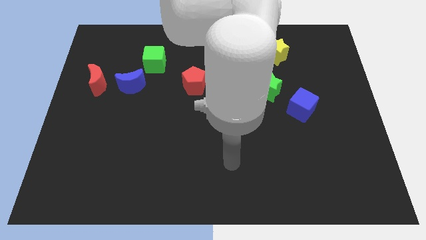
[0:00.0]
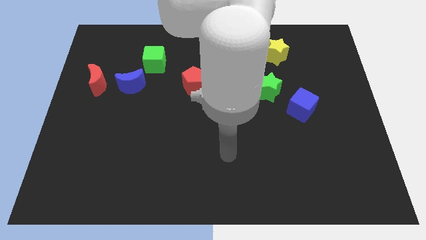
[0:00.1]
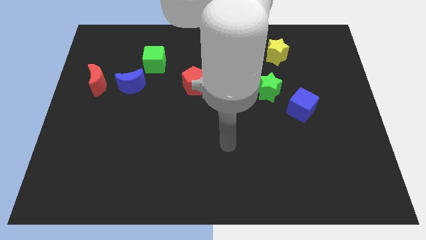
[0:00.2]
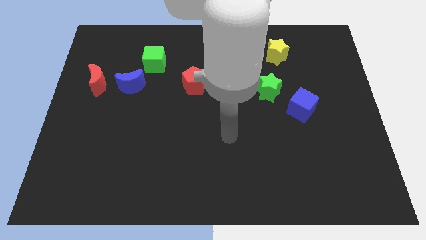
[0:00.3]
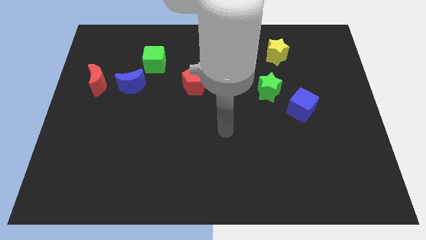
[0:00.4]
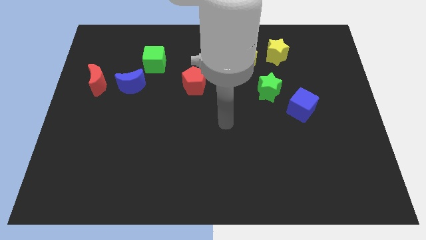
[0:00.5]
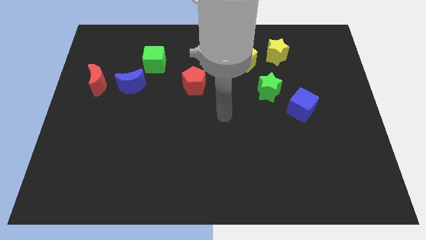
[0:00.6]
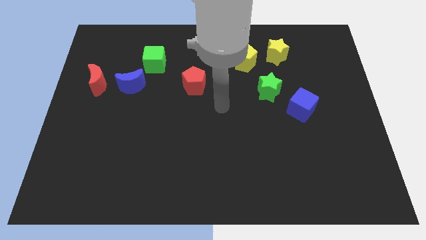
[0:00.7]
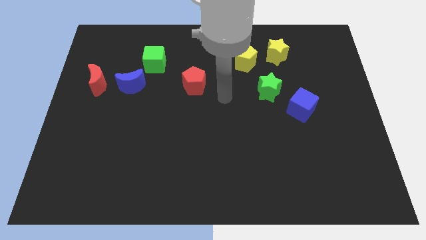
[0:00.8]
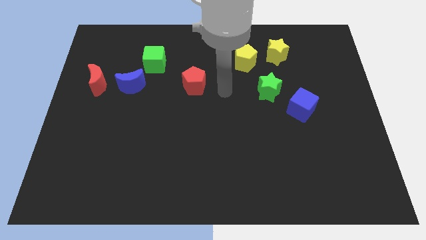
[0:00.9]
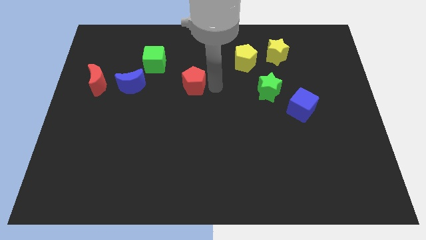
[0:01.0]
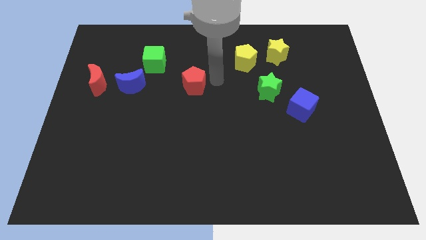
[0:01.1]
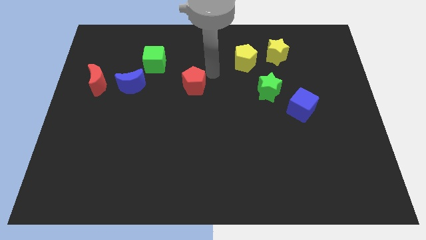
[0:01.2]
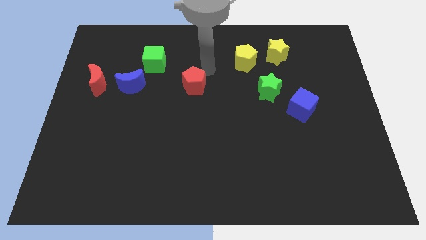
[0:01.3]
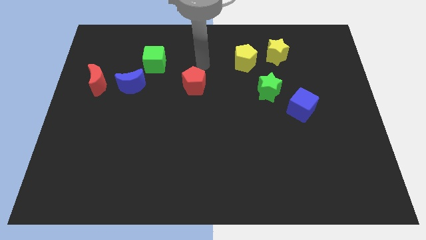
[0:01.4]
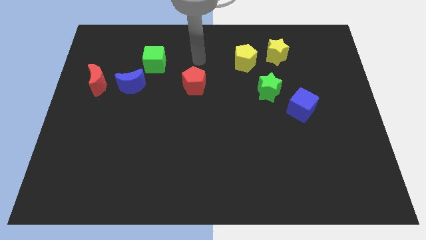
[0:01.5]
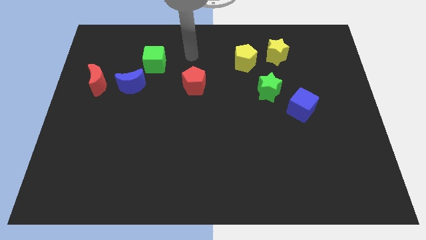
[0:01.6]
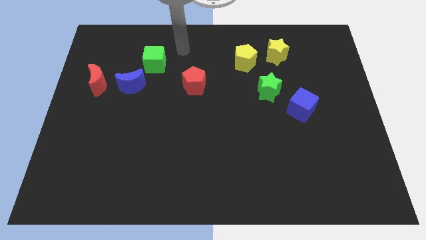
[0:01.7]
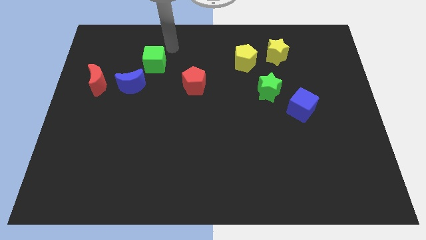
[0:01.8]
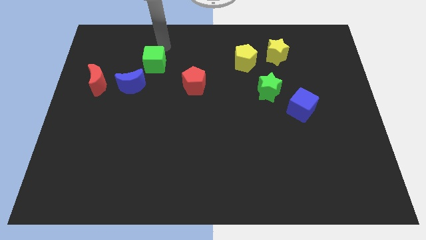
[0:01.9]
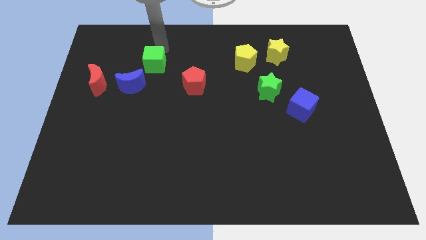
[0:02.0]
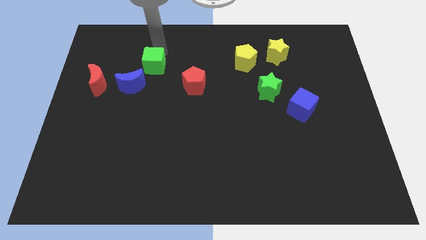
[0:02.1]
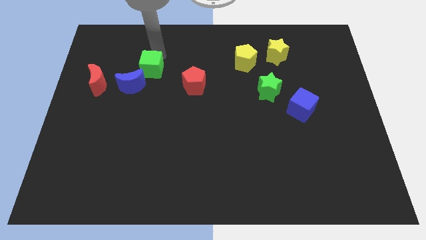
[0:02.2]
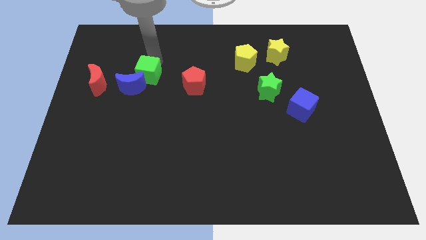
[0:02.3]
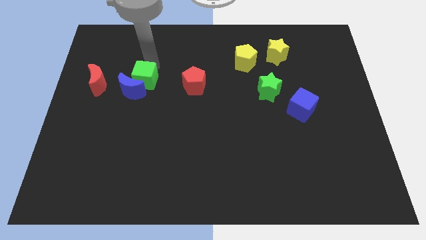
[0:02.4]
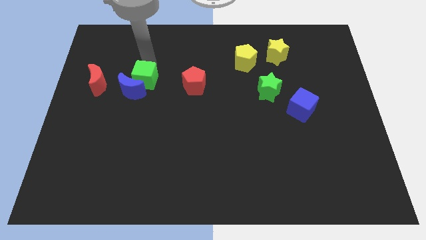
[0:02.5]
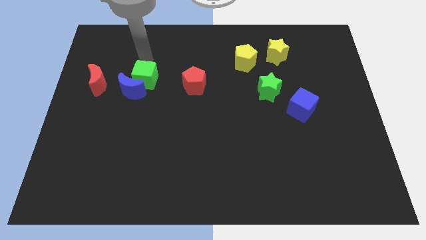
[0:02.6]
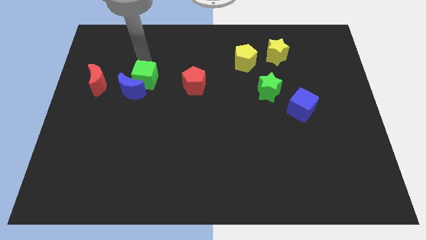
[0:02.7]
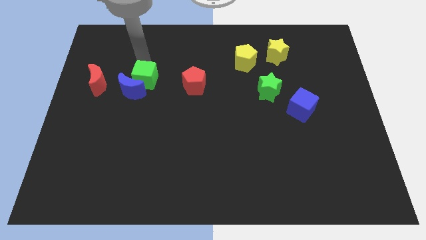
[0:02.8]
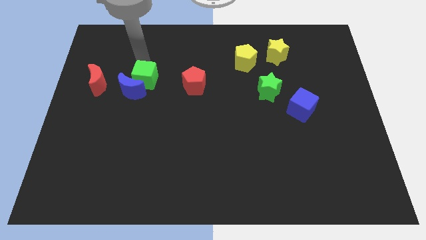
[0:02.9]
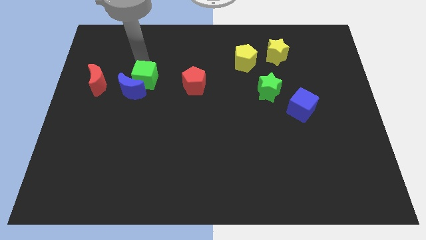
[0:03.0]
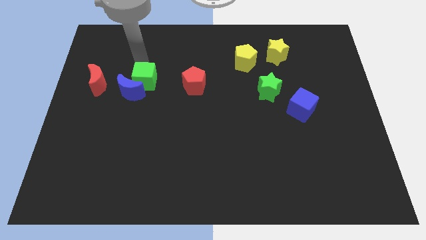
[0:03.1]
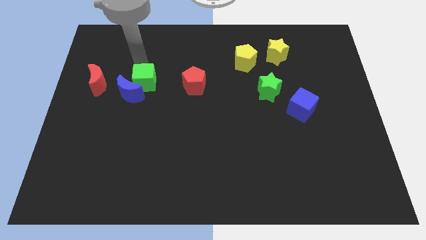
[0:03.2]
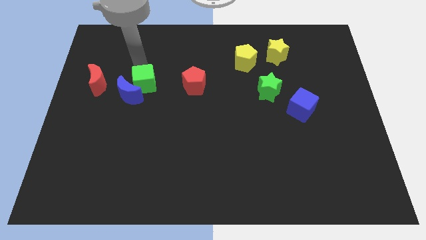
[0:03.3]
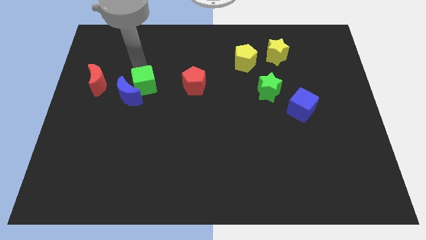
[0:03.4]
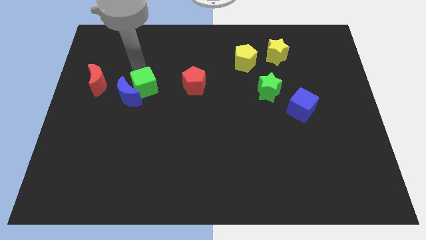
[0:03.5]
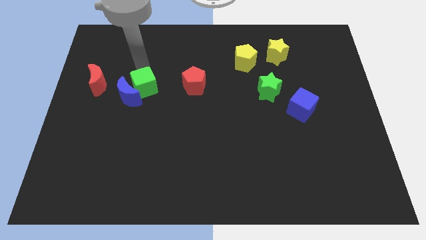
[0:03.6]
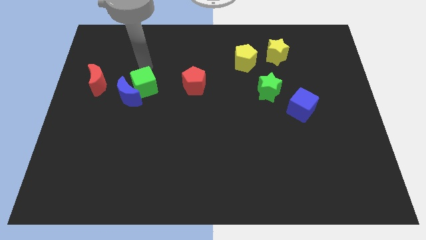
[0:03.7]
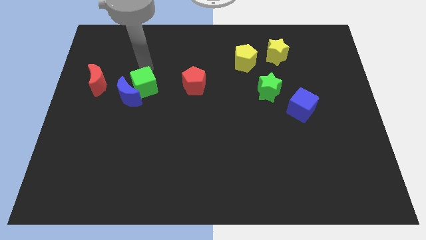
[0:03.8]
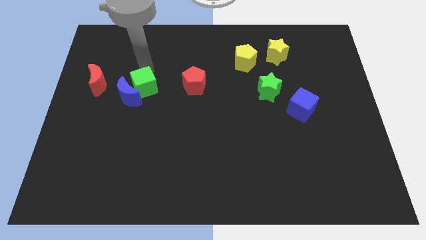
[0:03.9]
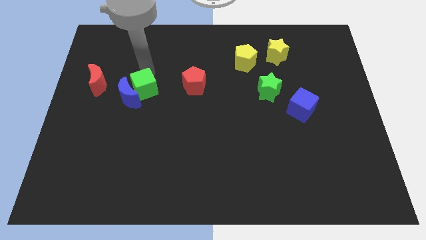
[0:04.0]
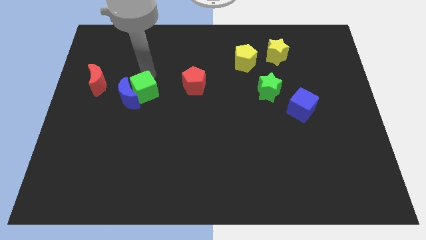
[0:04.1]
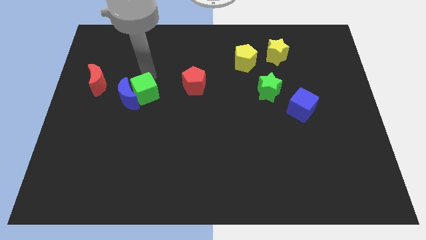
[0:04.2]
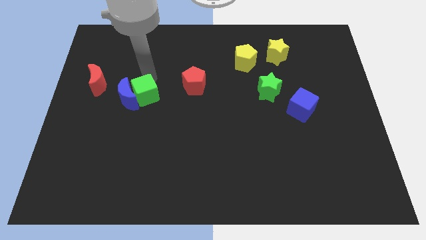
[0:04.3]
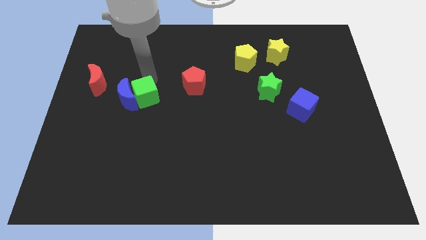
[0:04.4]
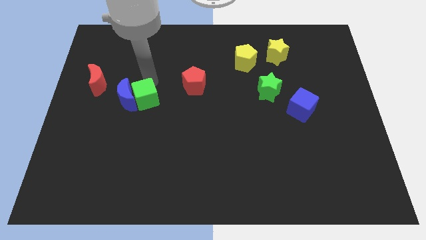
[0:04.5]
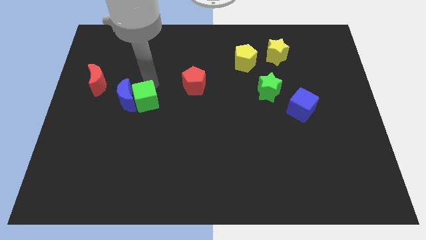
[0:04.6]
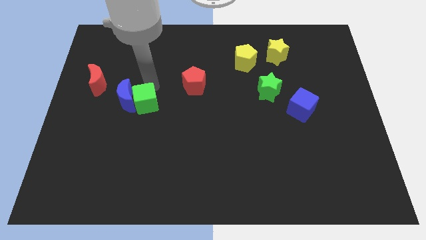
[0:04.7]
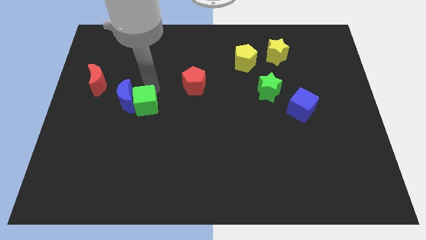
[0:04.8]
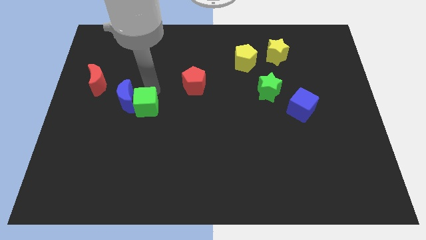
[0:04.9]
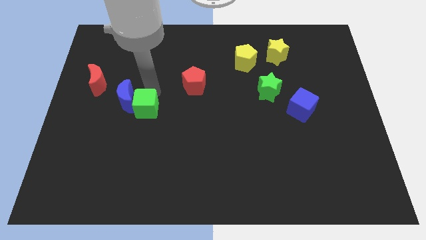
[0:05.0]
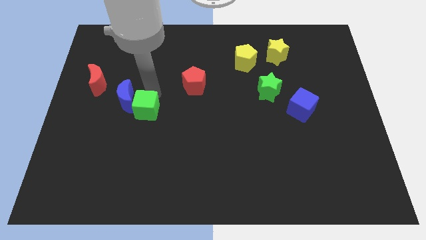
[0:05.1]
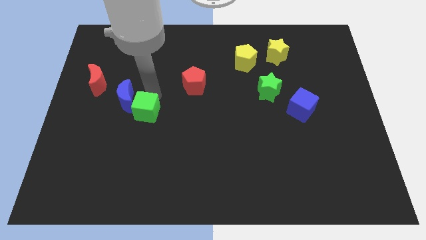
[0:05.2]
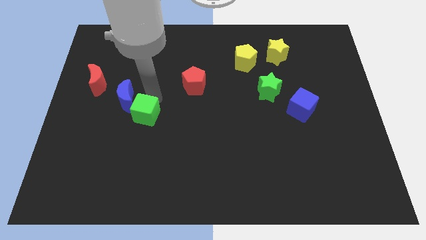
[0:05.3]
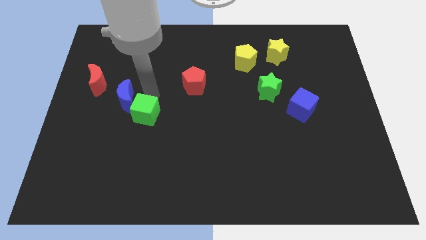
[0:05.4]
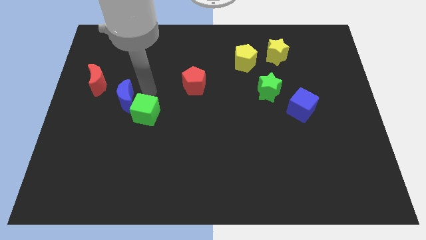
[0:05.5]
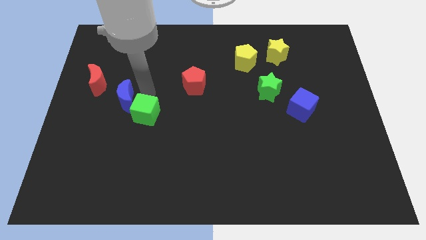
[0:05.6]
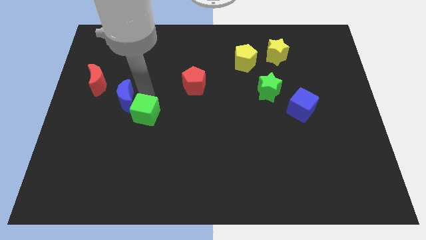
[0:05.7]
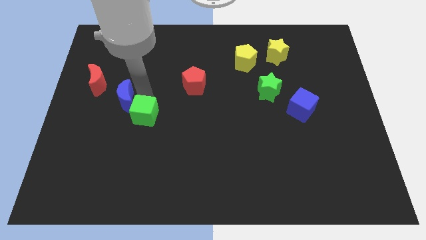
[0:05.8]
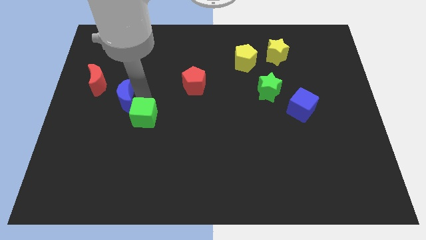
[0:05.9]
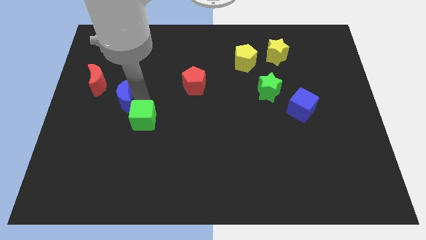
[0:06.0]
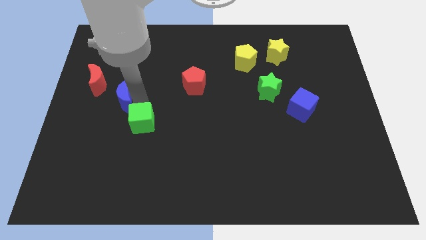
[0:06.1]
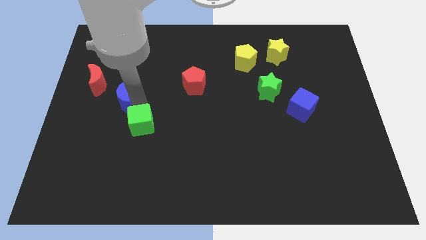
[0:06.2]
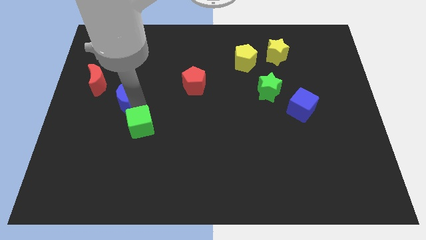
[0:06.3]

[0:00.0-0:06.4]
move the green cube down

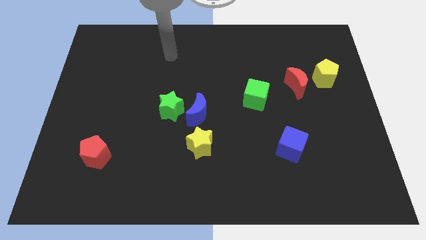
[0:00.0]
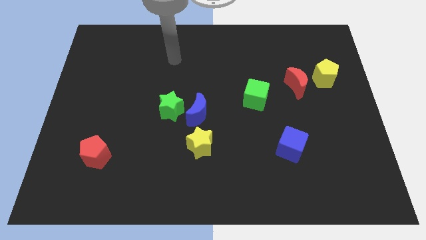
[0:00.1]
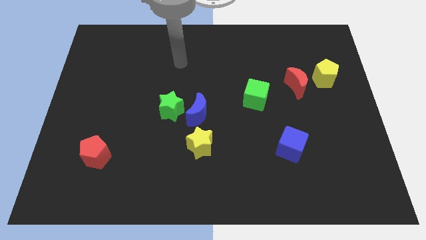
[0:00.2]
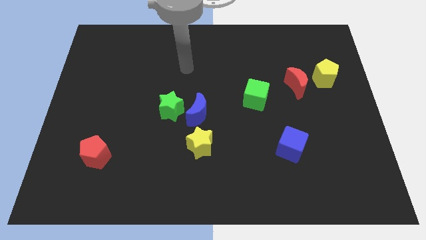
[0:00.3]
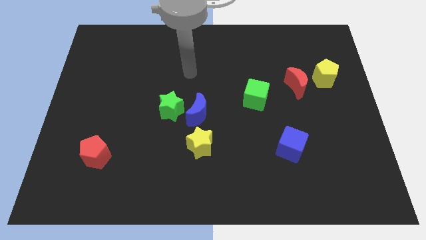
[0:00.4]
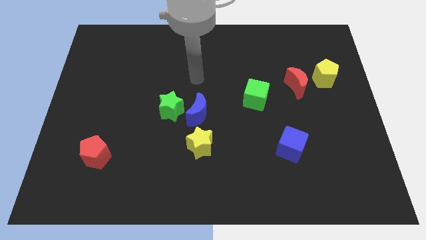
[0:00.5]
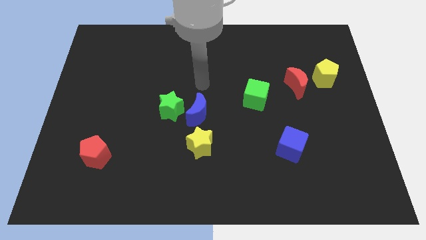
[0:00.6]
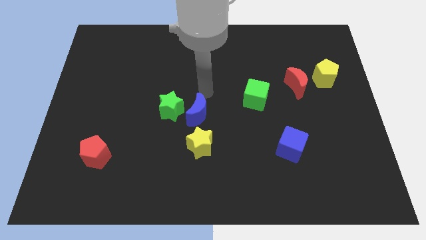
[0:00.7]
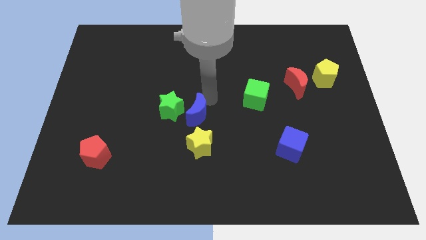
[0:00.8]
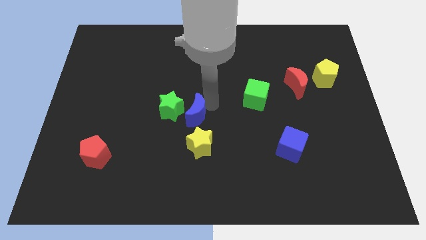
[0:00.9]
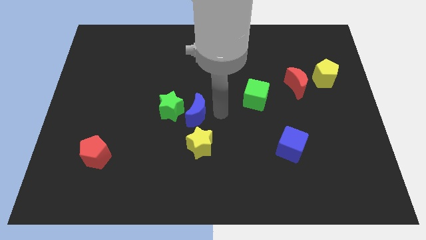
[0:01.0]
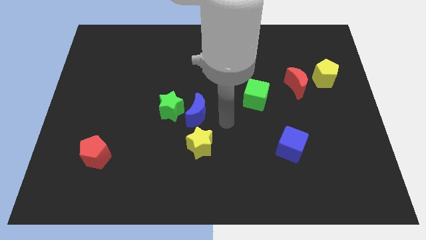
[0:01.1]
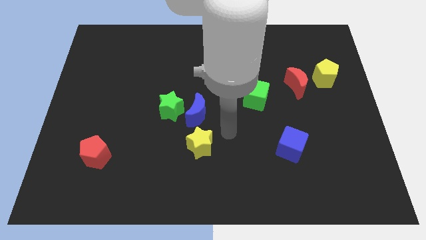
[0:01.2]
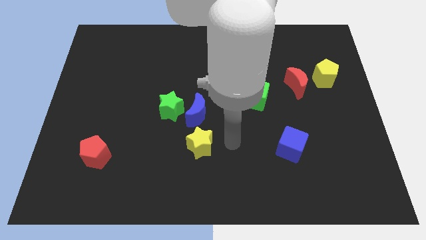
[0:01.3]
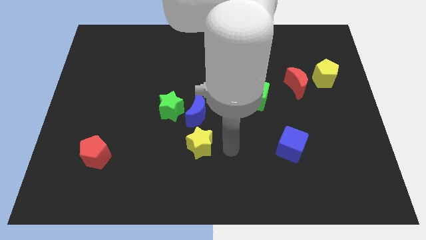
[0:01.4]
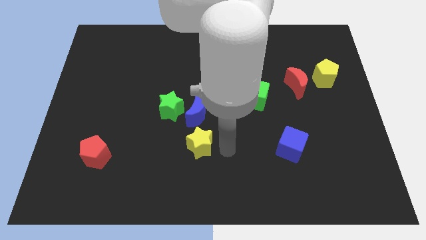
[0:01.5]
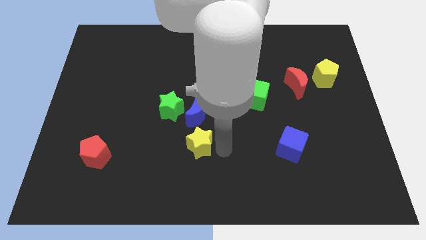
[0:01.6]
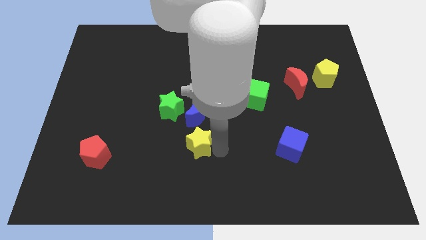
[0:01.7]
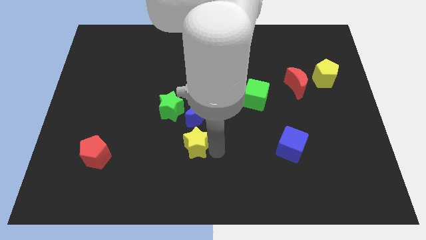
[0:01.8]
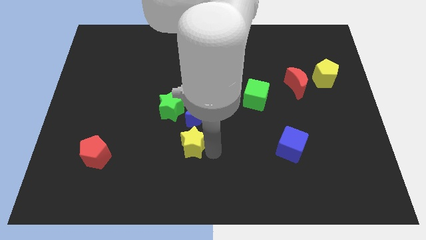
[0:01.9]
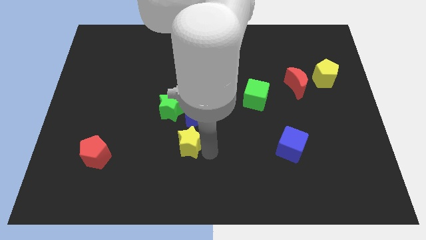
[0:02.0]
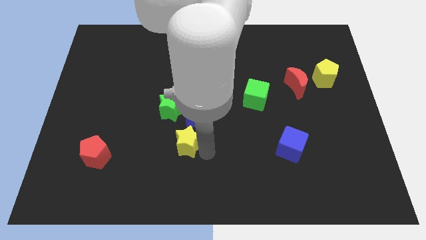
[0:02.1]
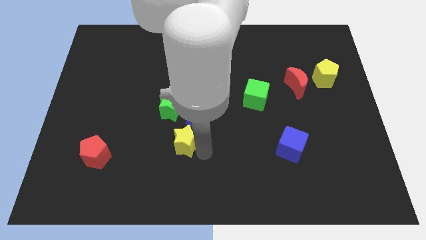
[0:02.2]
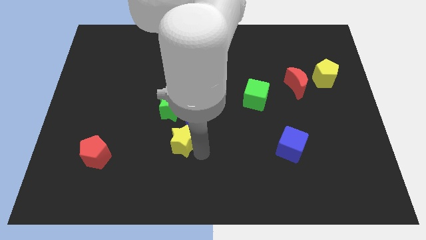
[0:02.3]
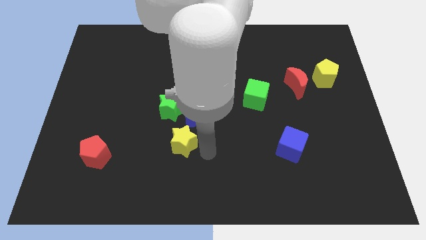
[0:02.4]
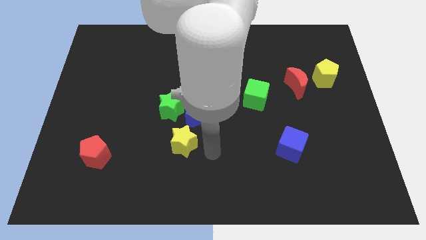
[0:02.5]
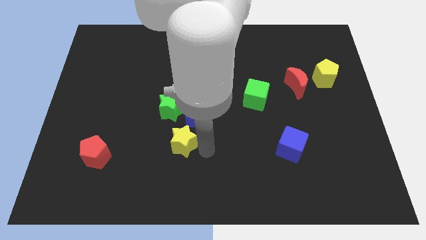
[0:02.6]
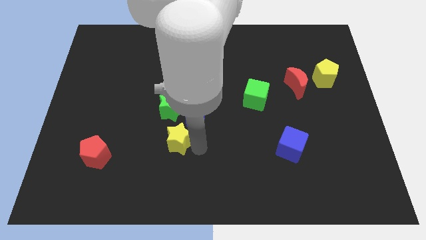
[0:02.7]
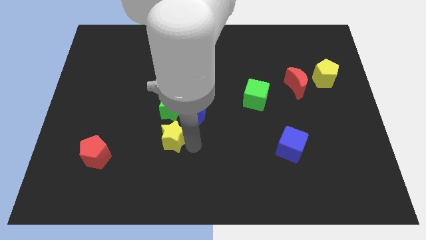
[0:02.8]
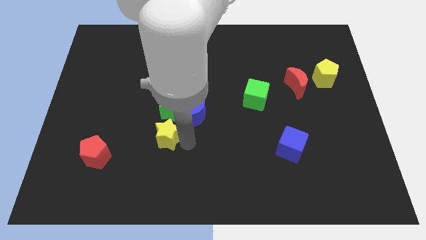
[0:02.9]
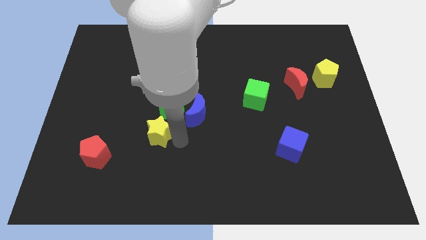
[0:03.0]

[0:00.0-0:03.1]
slide the yellow star upwards and left diagonally slightly
